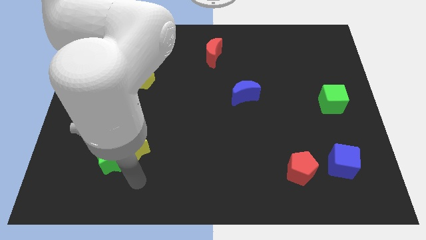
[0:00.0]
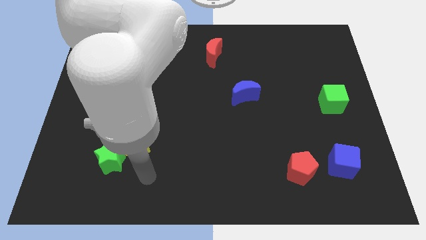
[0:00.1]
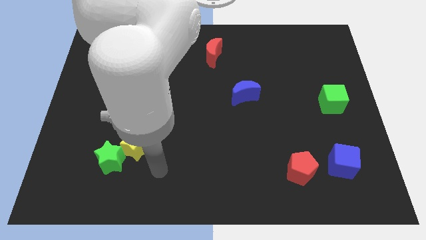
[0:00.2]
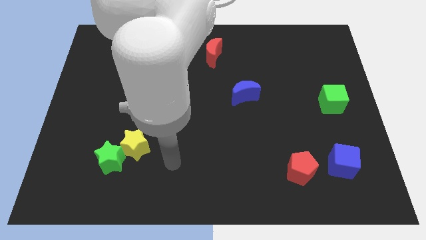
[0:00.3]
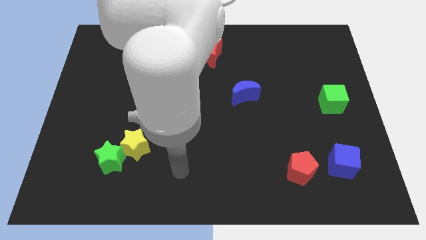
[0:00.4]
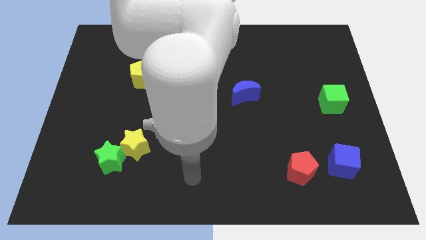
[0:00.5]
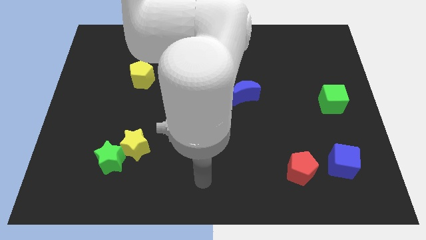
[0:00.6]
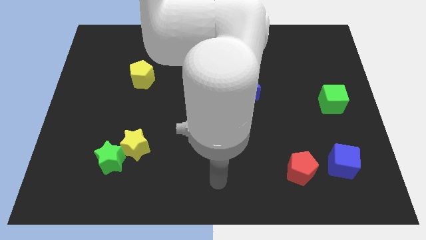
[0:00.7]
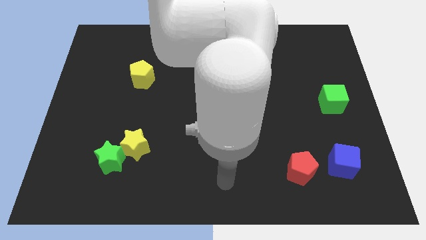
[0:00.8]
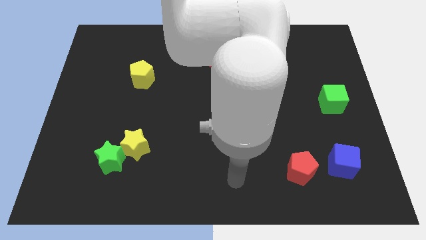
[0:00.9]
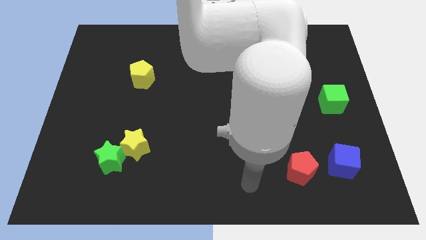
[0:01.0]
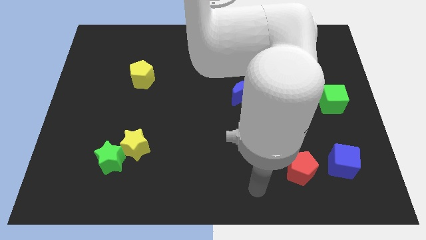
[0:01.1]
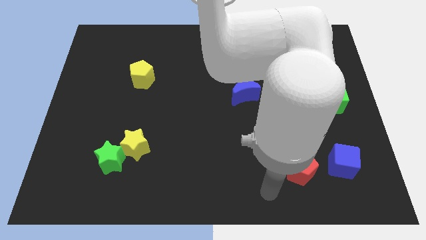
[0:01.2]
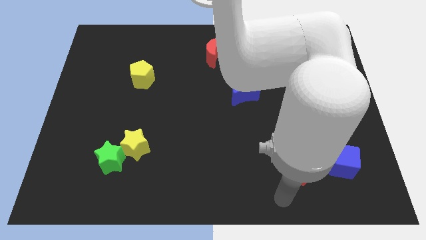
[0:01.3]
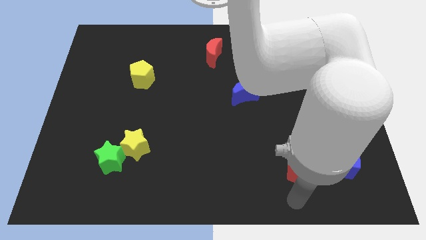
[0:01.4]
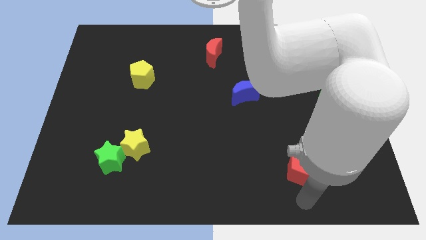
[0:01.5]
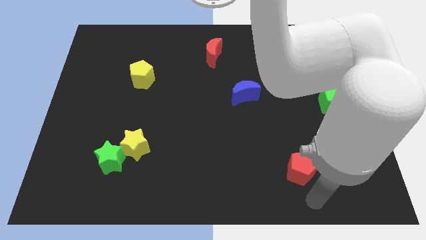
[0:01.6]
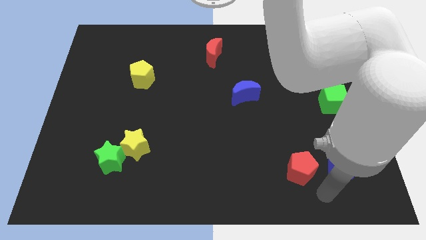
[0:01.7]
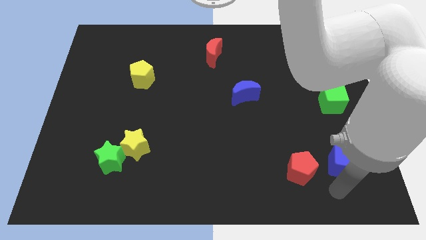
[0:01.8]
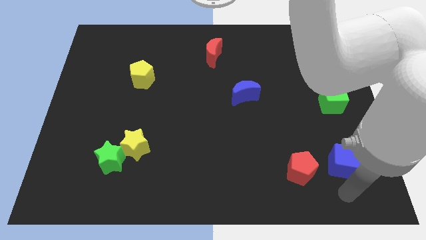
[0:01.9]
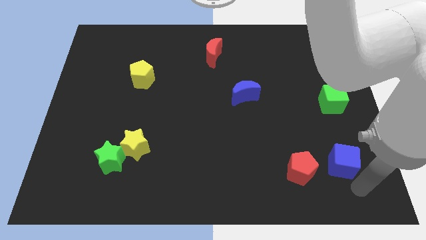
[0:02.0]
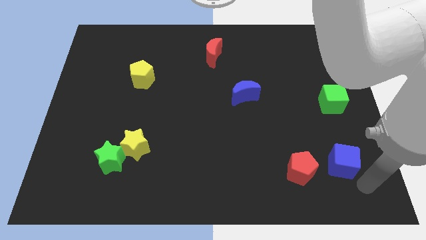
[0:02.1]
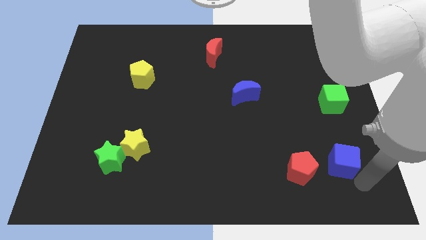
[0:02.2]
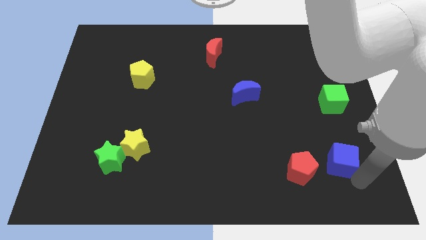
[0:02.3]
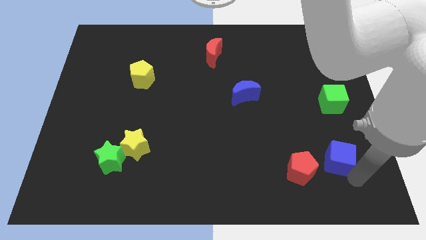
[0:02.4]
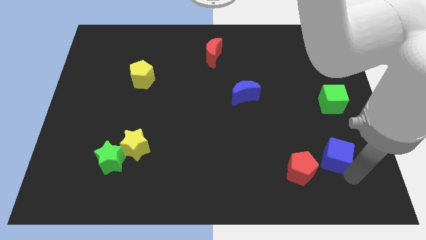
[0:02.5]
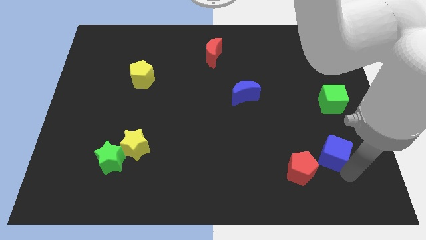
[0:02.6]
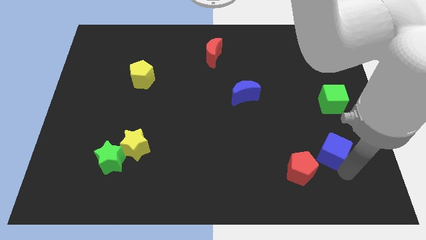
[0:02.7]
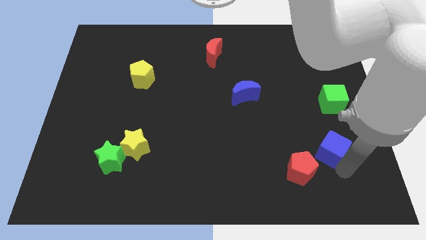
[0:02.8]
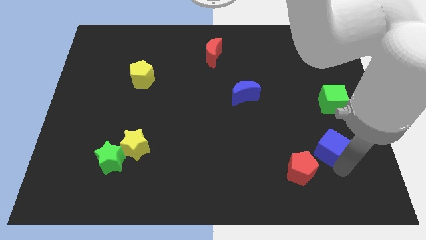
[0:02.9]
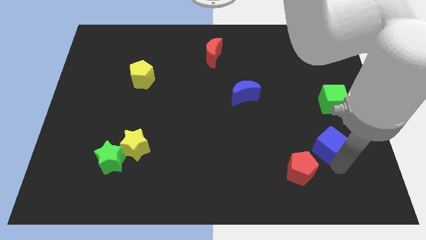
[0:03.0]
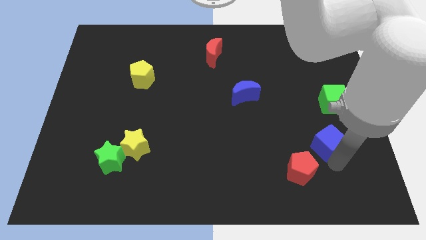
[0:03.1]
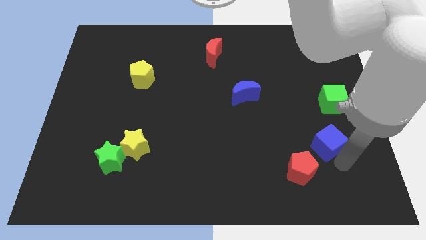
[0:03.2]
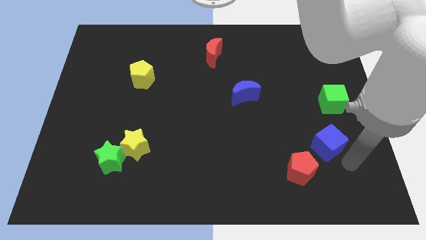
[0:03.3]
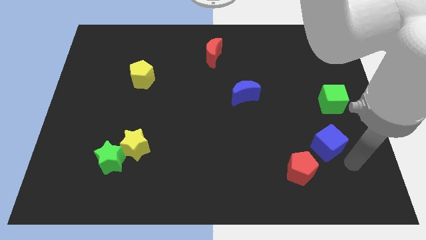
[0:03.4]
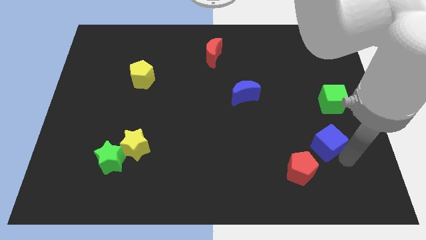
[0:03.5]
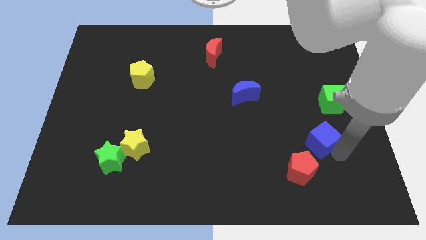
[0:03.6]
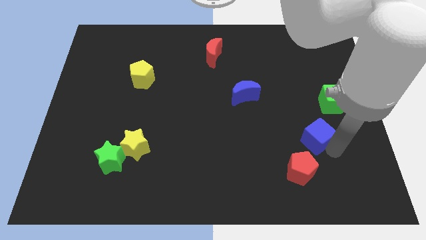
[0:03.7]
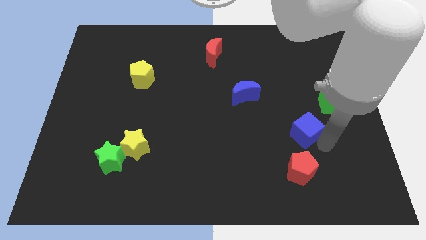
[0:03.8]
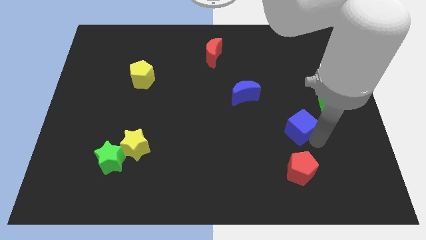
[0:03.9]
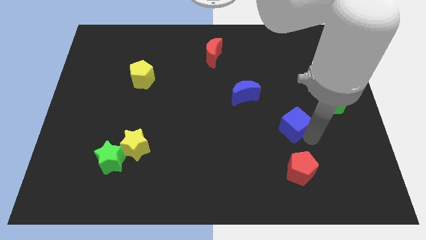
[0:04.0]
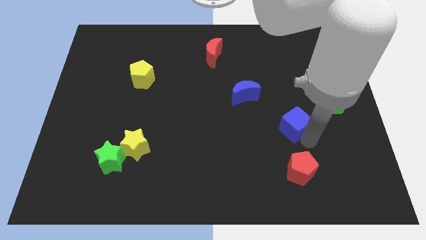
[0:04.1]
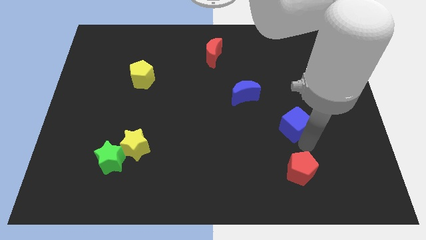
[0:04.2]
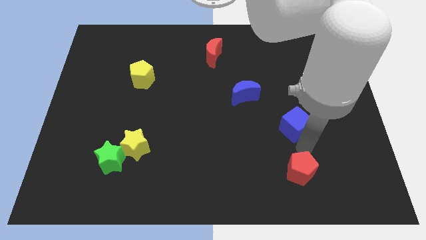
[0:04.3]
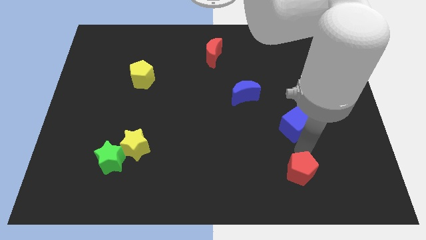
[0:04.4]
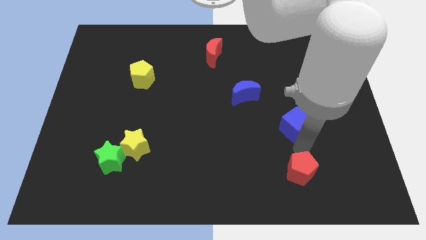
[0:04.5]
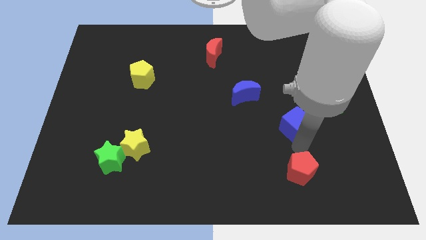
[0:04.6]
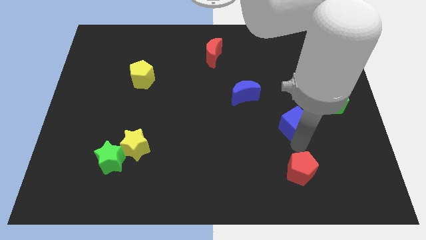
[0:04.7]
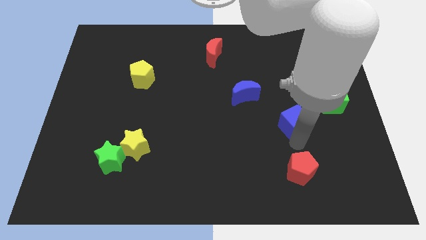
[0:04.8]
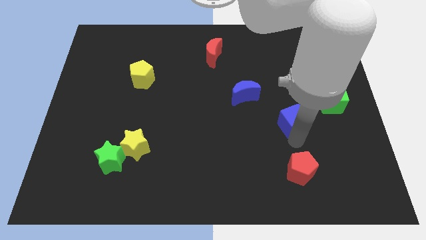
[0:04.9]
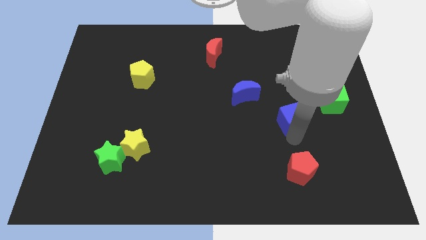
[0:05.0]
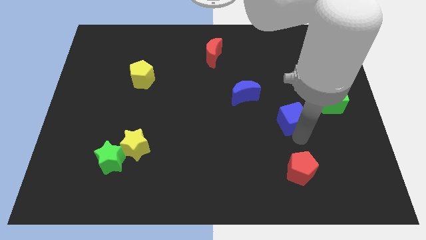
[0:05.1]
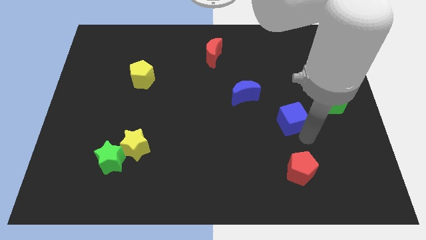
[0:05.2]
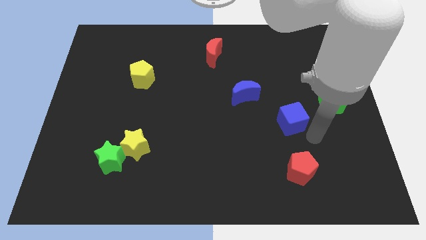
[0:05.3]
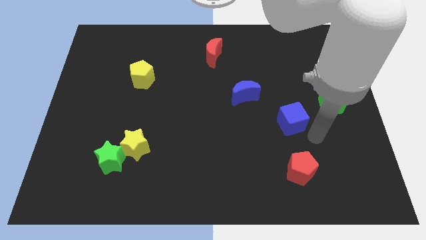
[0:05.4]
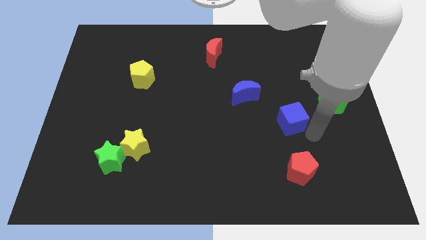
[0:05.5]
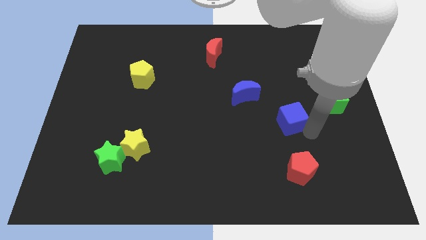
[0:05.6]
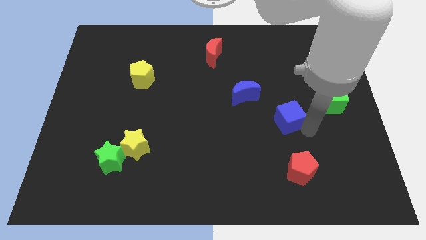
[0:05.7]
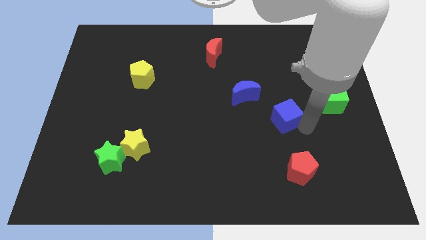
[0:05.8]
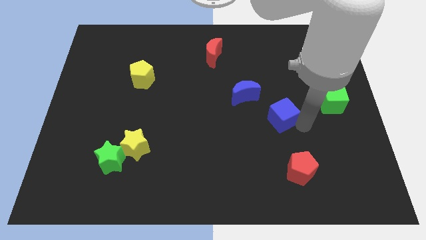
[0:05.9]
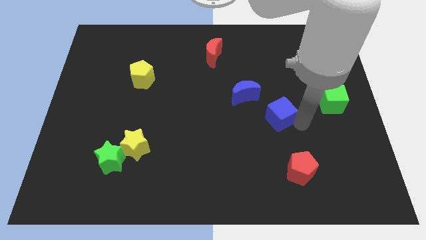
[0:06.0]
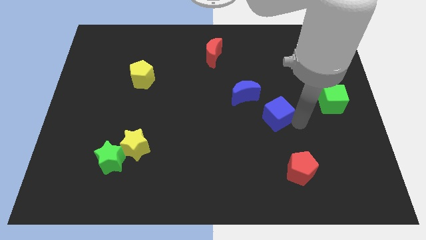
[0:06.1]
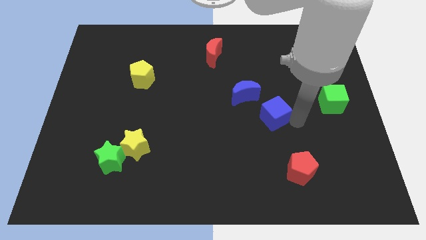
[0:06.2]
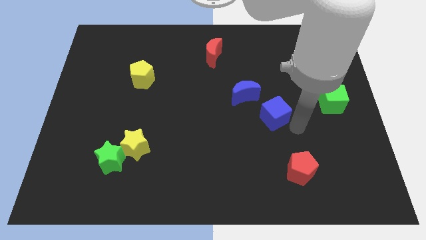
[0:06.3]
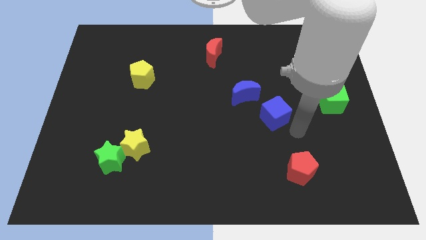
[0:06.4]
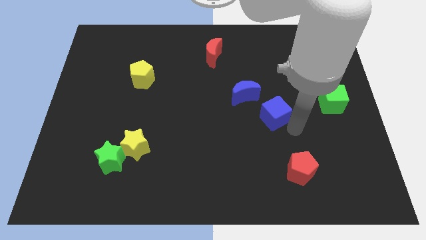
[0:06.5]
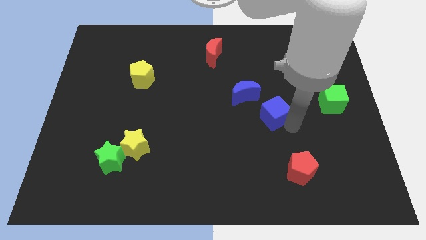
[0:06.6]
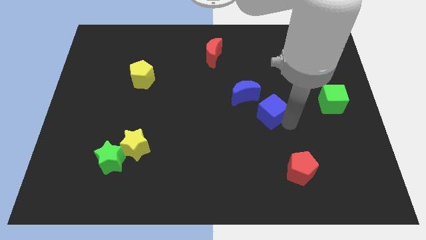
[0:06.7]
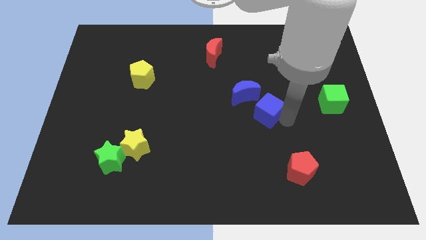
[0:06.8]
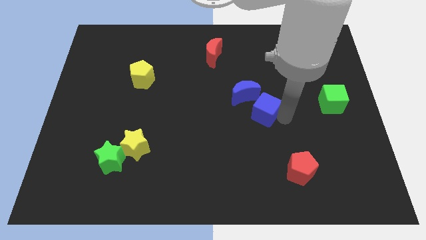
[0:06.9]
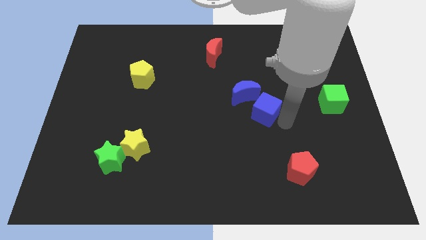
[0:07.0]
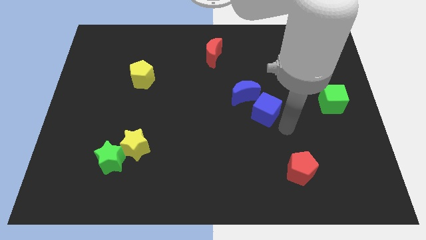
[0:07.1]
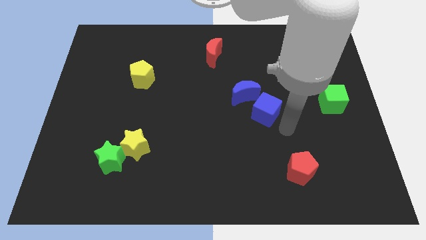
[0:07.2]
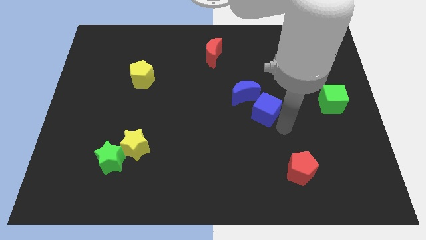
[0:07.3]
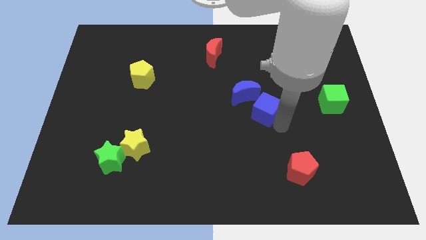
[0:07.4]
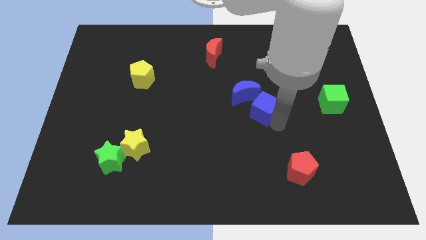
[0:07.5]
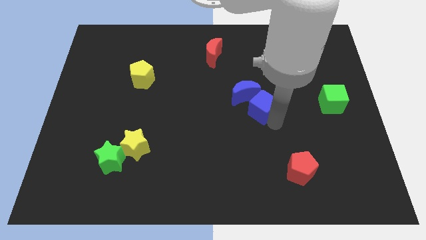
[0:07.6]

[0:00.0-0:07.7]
slide the blue cube next to the blue moon
